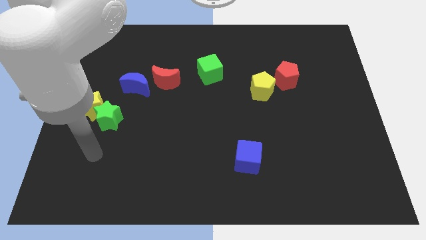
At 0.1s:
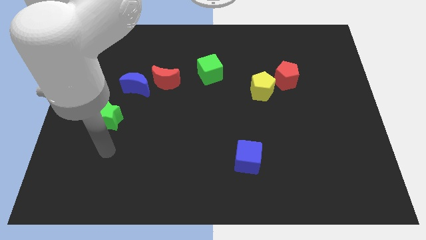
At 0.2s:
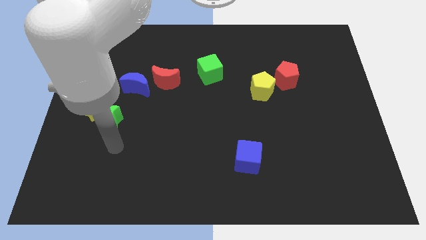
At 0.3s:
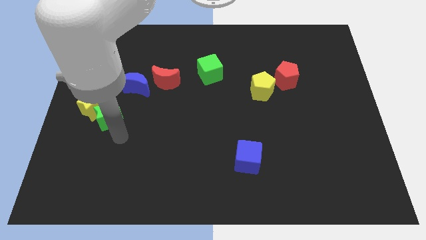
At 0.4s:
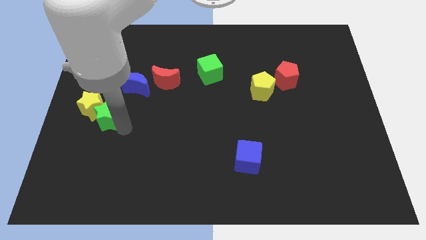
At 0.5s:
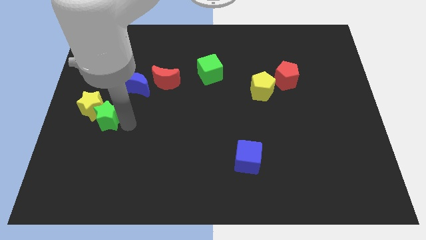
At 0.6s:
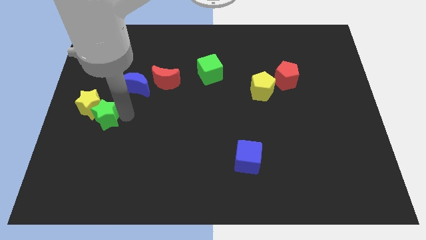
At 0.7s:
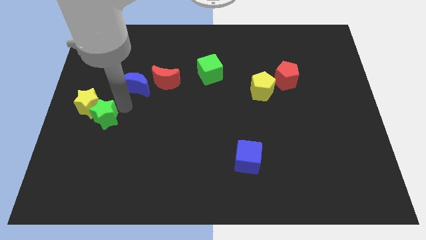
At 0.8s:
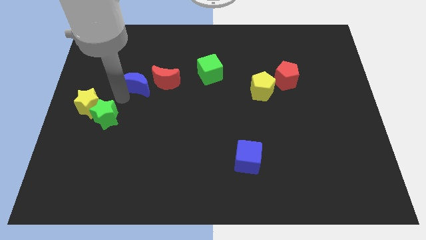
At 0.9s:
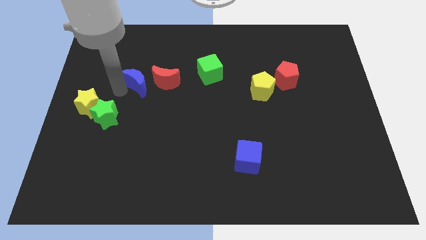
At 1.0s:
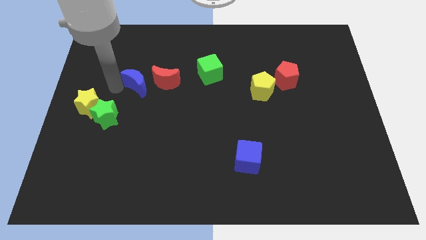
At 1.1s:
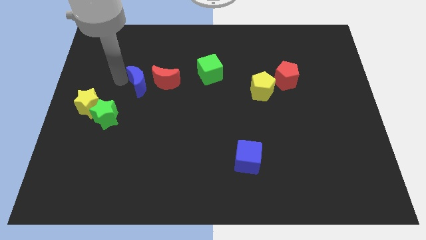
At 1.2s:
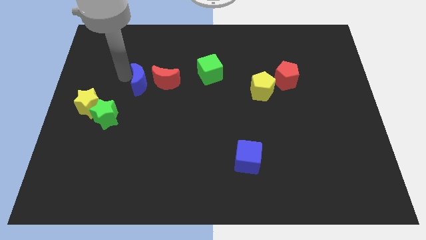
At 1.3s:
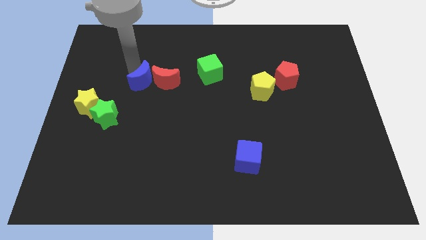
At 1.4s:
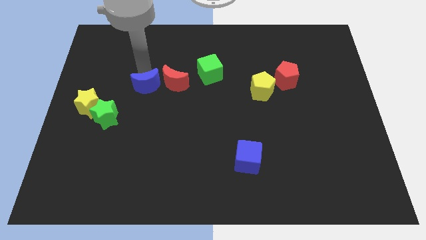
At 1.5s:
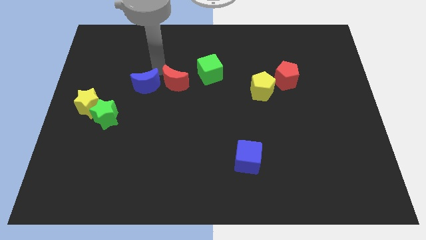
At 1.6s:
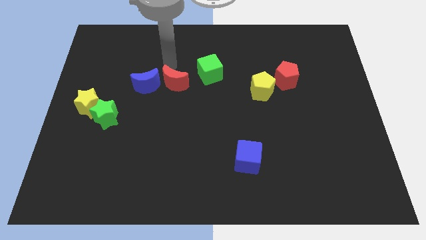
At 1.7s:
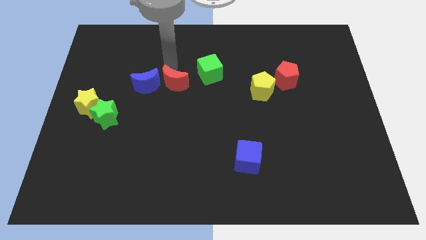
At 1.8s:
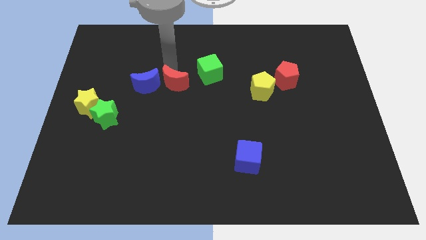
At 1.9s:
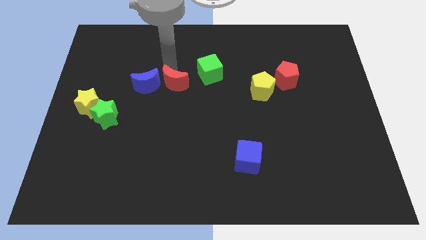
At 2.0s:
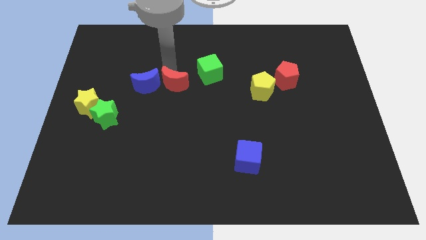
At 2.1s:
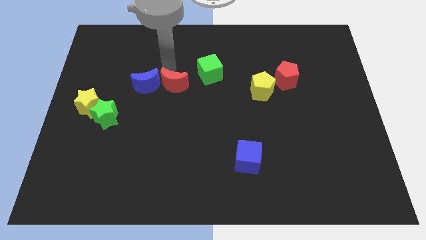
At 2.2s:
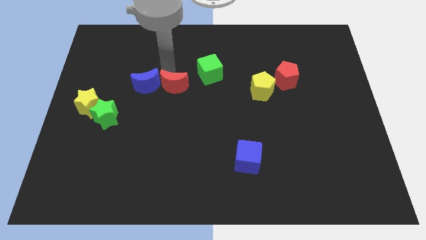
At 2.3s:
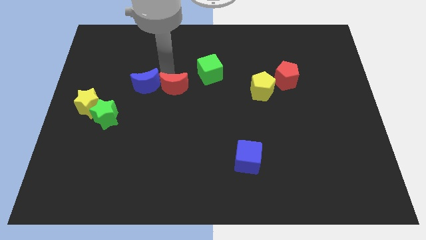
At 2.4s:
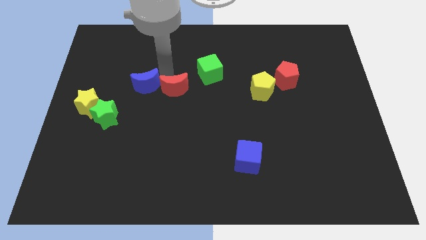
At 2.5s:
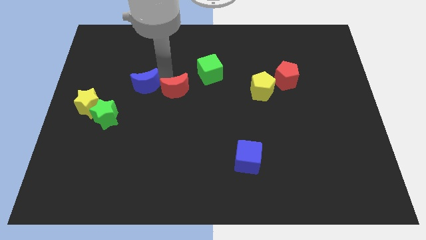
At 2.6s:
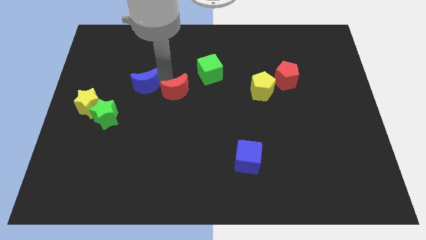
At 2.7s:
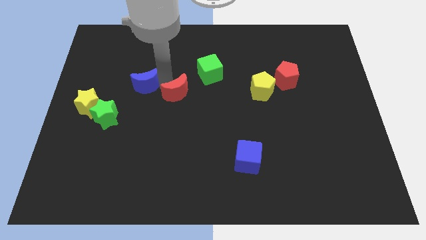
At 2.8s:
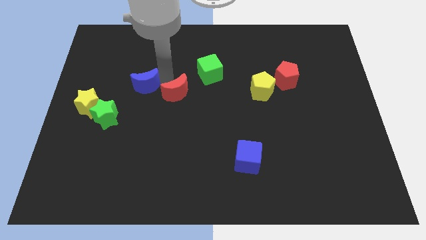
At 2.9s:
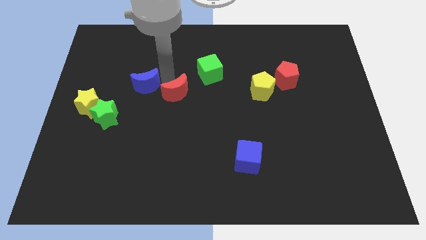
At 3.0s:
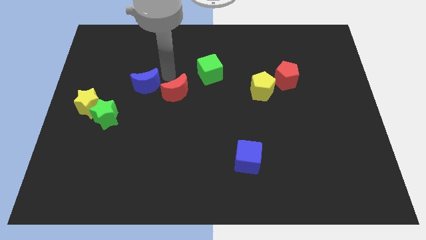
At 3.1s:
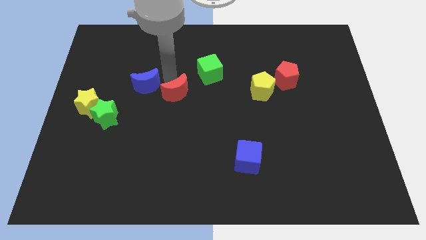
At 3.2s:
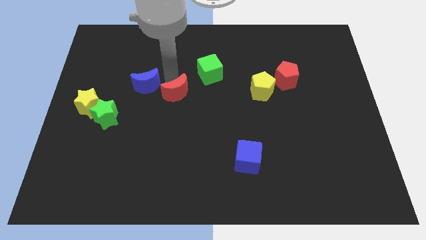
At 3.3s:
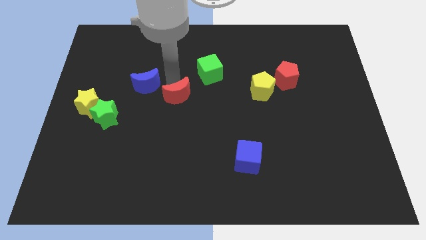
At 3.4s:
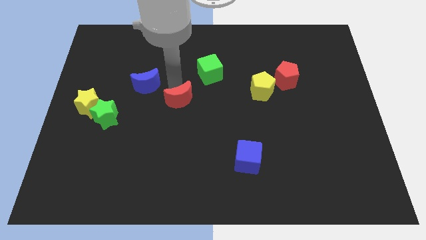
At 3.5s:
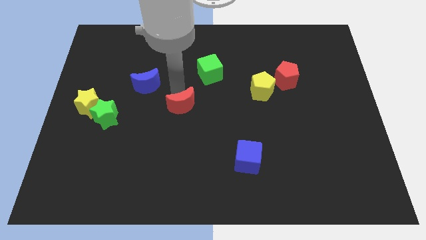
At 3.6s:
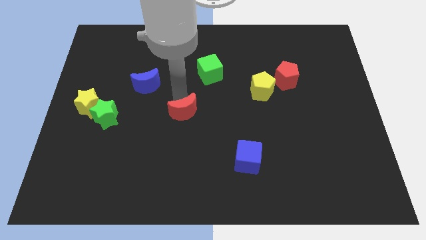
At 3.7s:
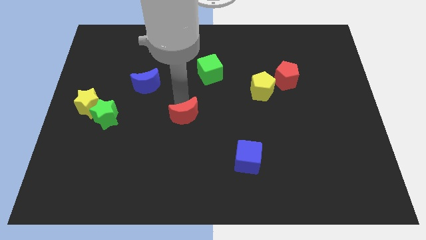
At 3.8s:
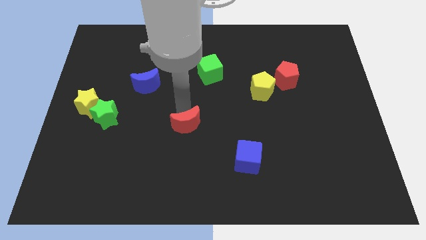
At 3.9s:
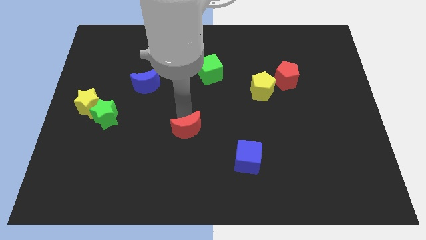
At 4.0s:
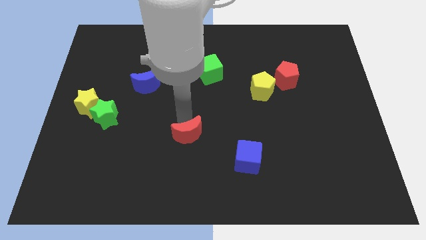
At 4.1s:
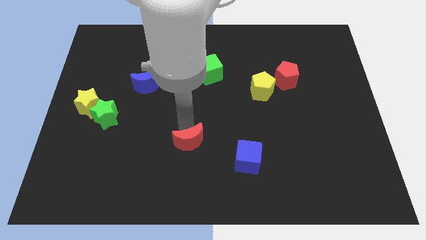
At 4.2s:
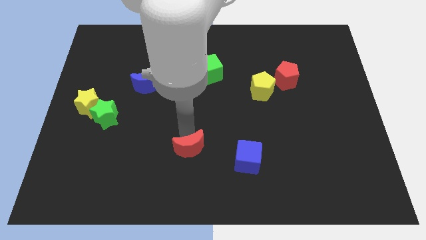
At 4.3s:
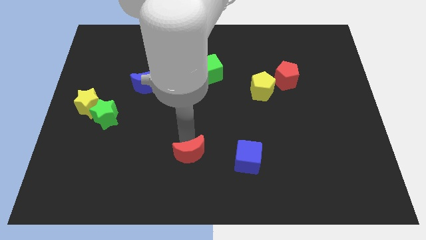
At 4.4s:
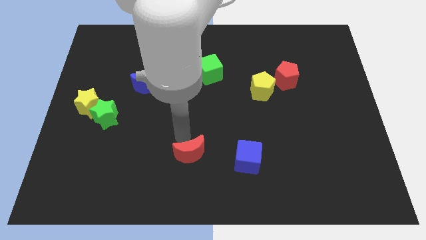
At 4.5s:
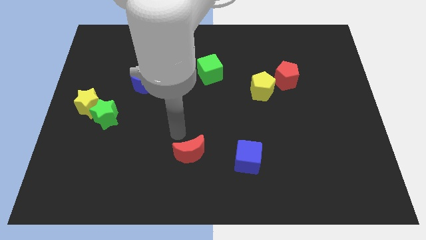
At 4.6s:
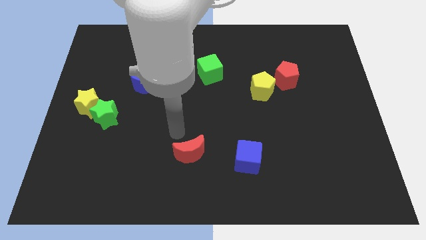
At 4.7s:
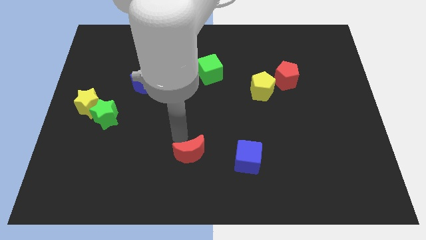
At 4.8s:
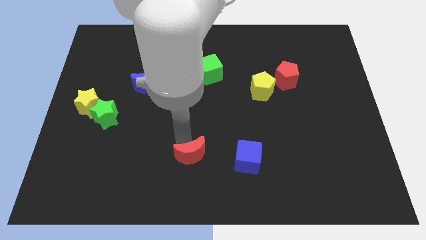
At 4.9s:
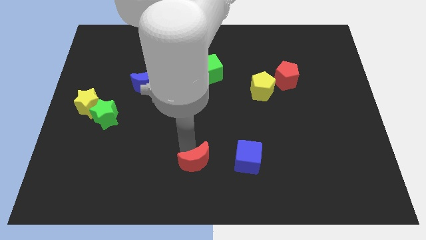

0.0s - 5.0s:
move the red moon to the bottom side

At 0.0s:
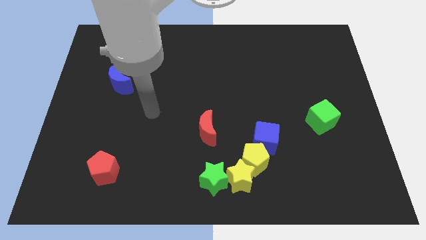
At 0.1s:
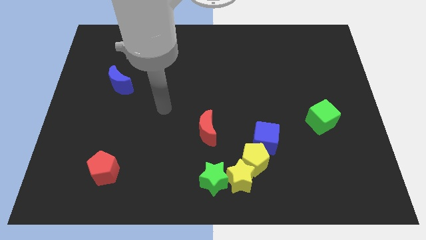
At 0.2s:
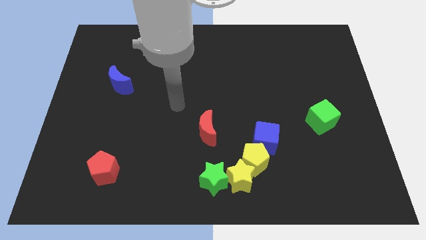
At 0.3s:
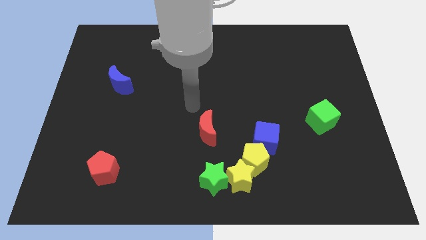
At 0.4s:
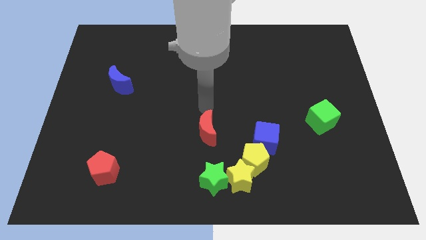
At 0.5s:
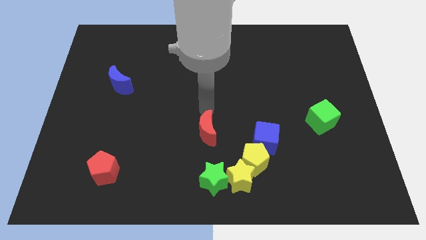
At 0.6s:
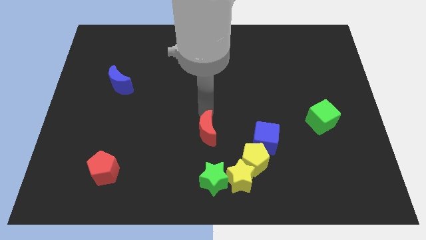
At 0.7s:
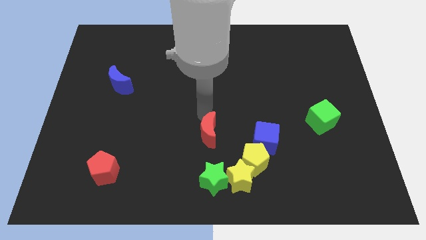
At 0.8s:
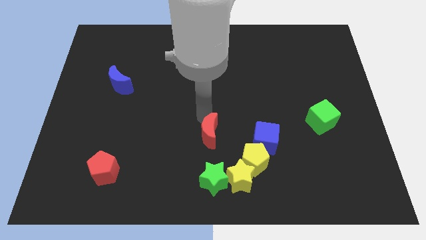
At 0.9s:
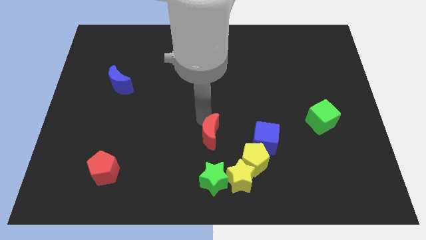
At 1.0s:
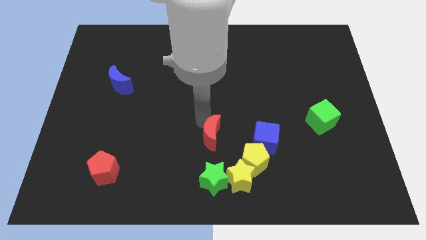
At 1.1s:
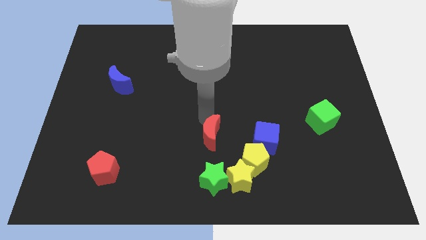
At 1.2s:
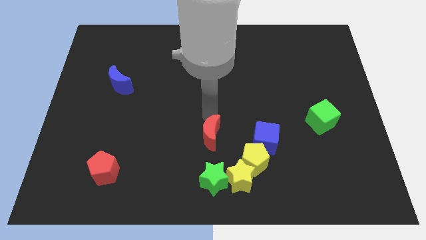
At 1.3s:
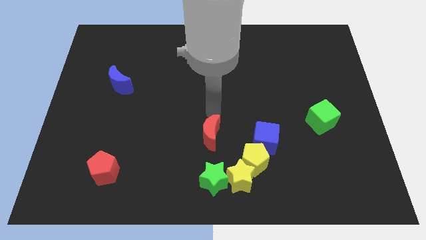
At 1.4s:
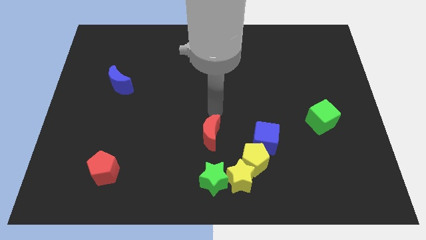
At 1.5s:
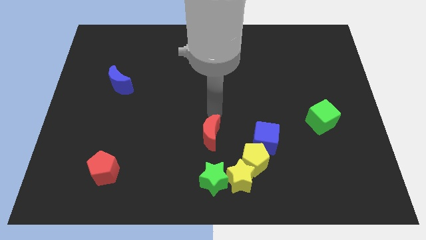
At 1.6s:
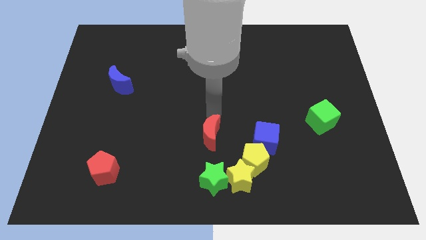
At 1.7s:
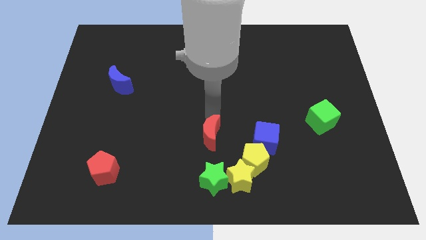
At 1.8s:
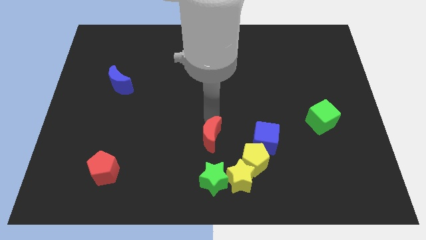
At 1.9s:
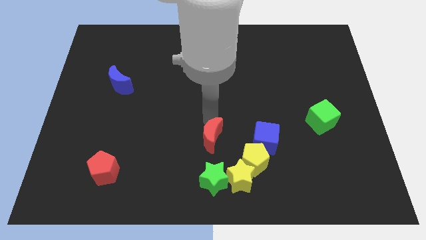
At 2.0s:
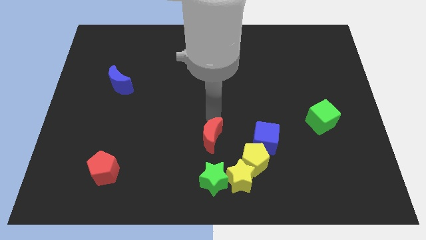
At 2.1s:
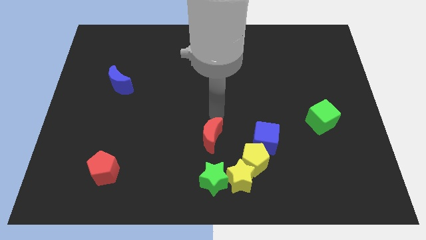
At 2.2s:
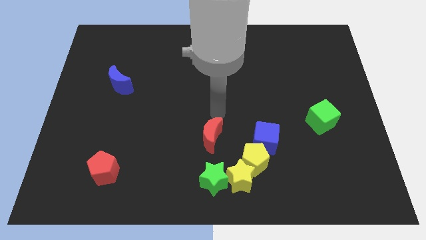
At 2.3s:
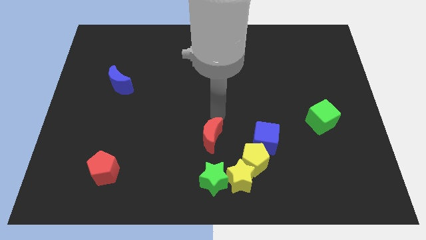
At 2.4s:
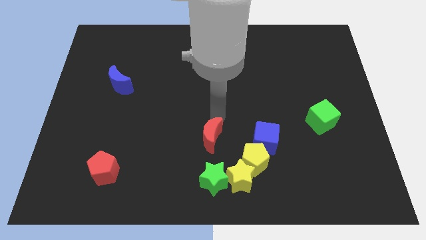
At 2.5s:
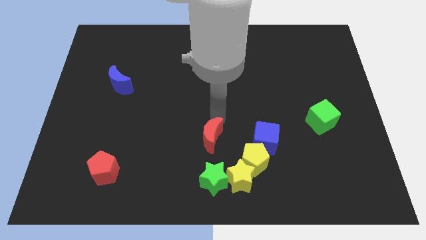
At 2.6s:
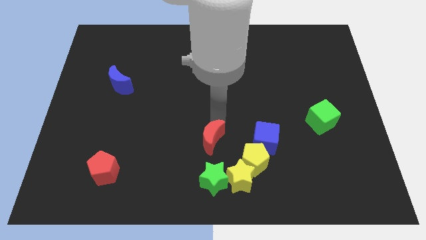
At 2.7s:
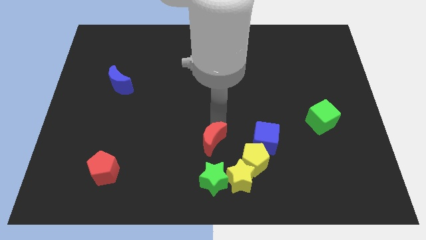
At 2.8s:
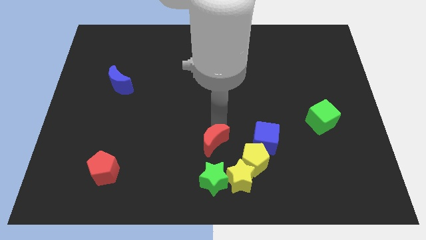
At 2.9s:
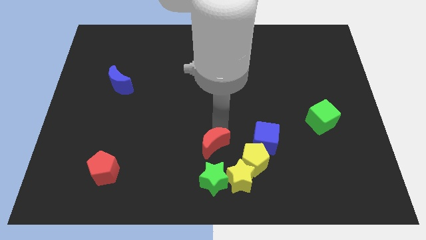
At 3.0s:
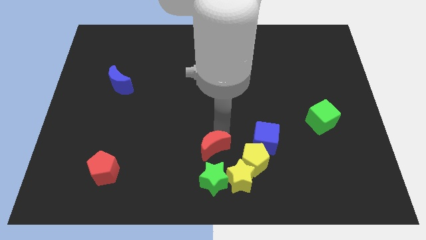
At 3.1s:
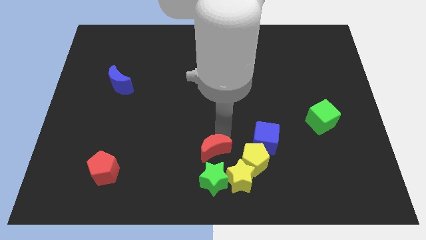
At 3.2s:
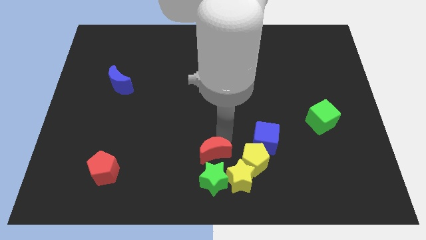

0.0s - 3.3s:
move the red moon to the bottom
